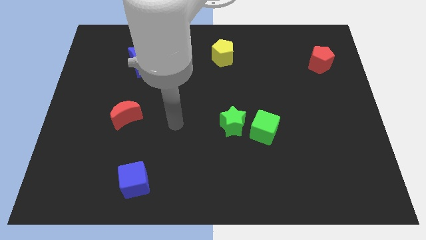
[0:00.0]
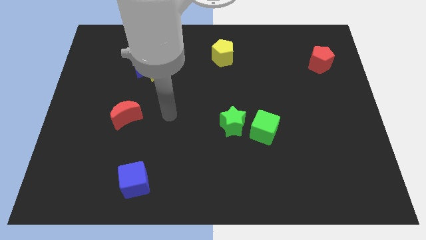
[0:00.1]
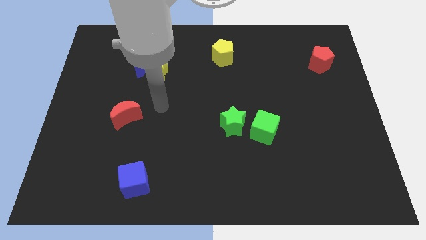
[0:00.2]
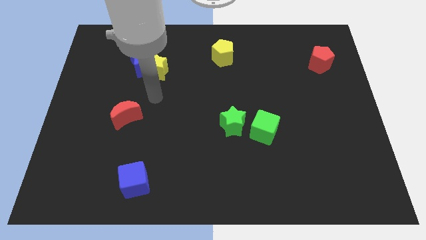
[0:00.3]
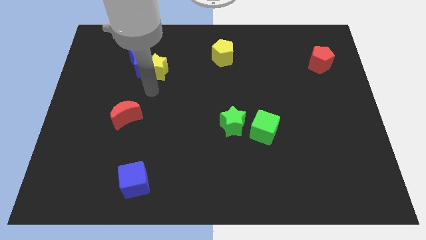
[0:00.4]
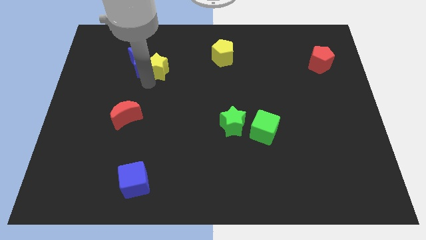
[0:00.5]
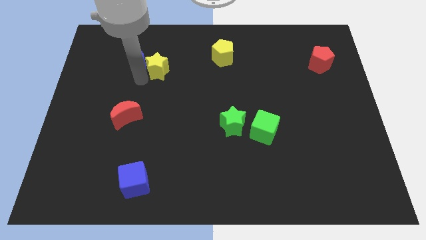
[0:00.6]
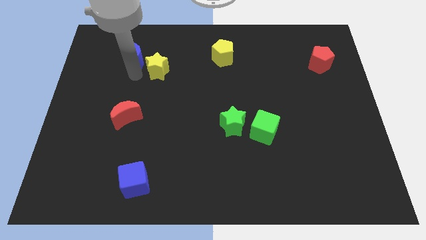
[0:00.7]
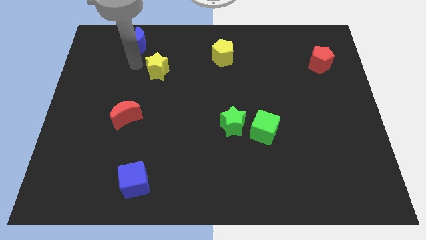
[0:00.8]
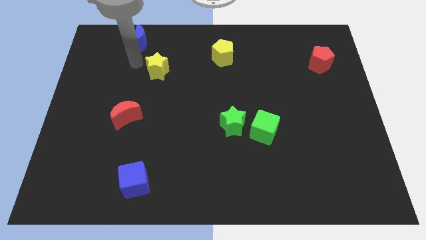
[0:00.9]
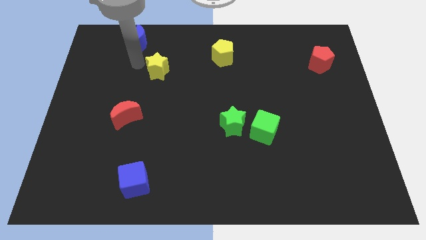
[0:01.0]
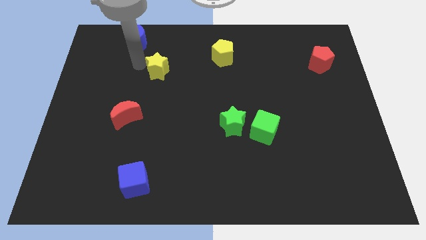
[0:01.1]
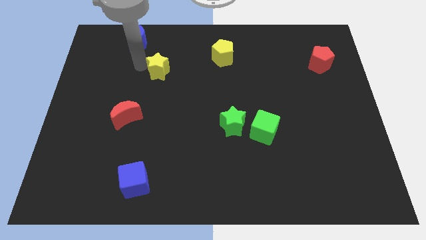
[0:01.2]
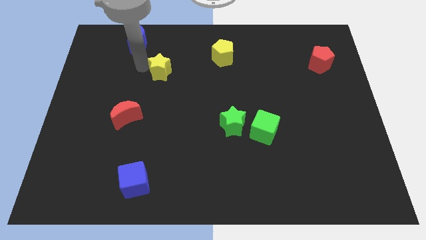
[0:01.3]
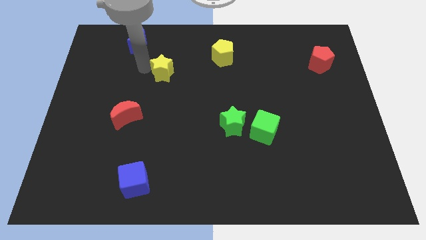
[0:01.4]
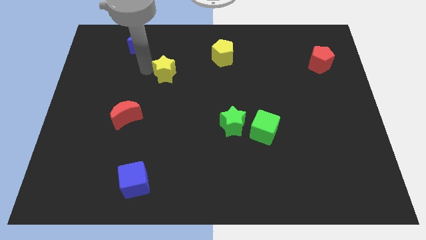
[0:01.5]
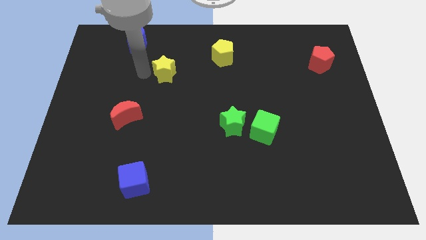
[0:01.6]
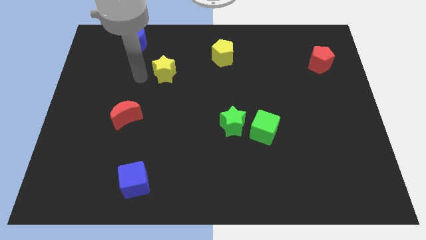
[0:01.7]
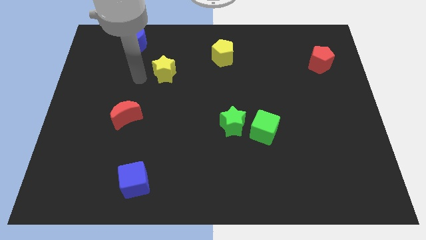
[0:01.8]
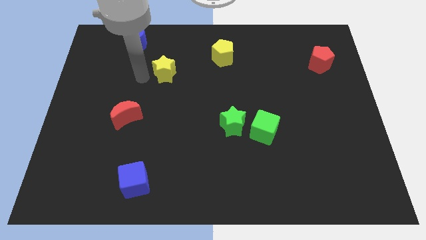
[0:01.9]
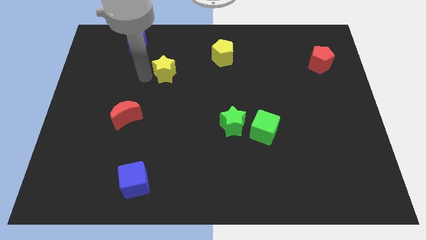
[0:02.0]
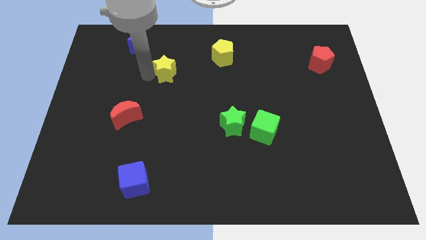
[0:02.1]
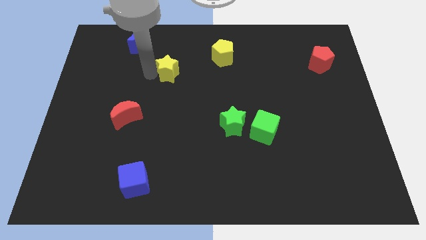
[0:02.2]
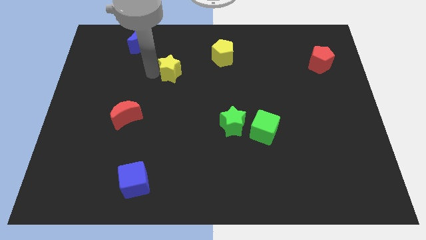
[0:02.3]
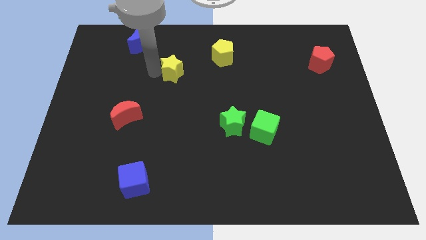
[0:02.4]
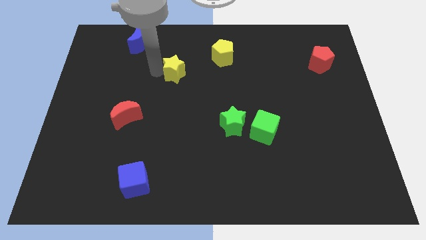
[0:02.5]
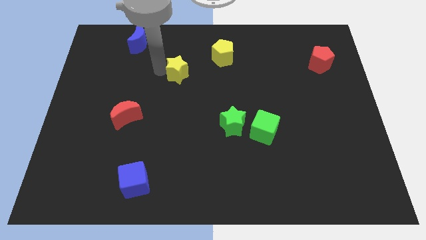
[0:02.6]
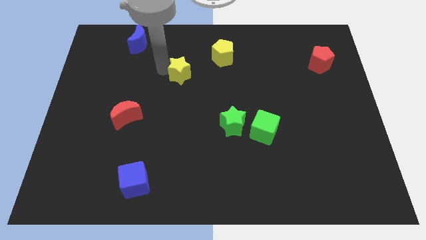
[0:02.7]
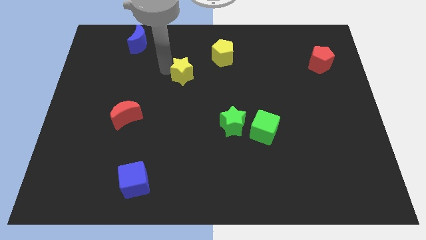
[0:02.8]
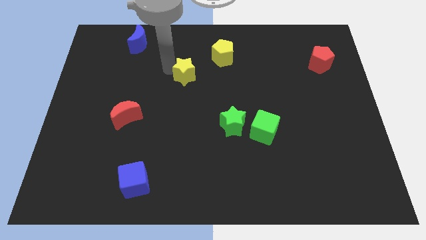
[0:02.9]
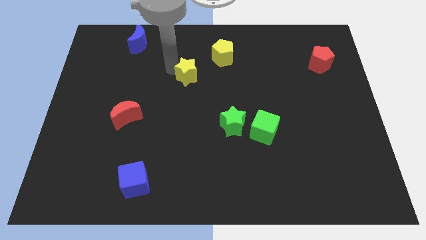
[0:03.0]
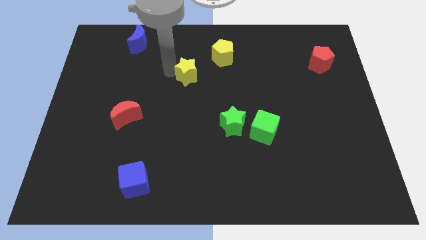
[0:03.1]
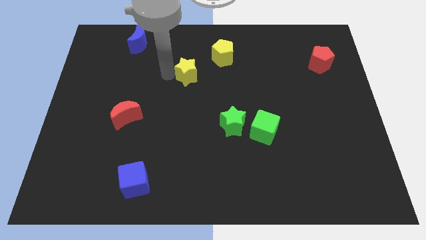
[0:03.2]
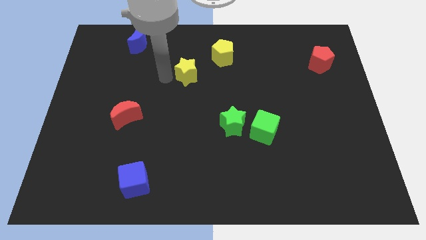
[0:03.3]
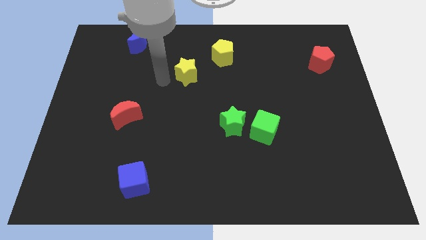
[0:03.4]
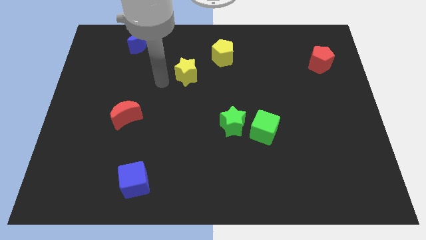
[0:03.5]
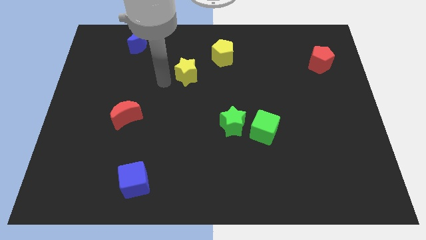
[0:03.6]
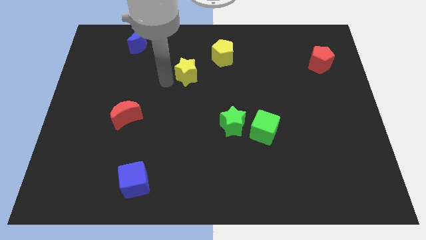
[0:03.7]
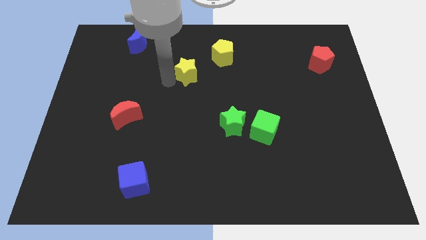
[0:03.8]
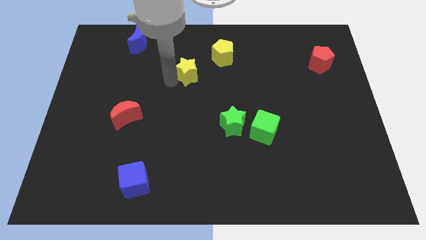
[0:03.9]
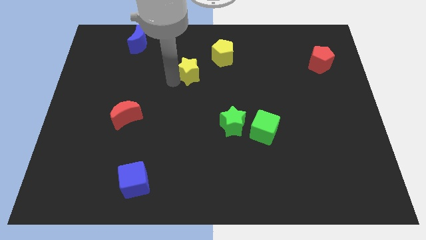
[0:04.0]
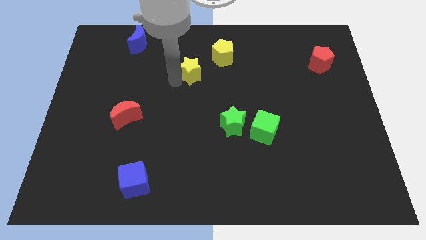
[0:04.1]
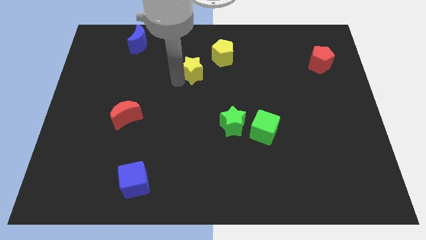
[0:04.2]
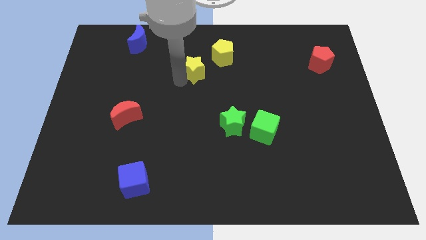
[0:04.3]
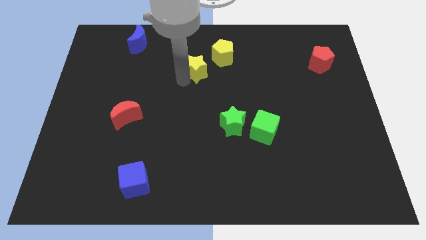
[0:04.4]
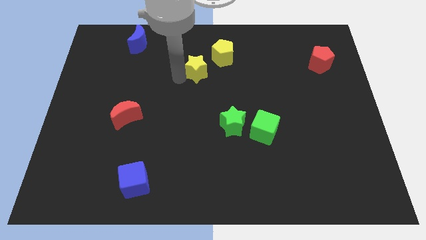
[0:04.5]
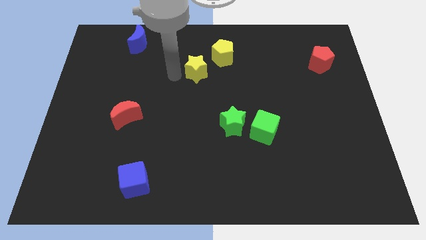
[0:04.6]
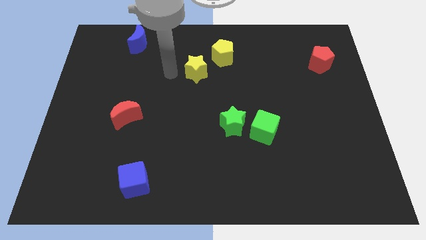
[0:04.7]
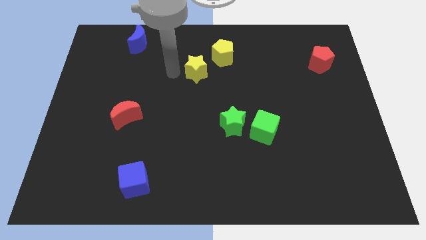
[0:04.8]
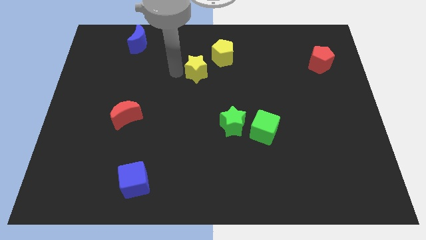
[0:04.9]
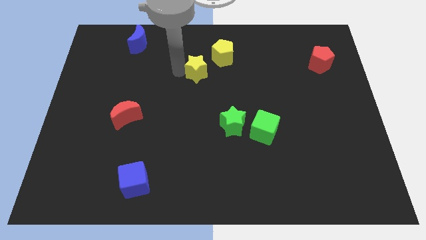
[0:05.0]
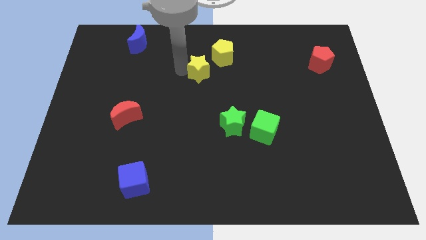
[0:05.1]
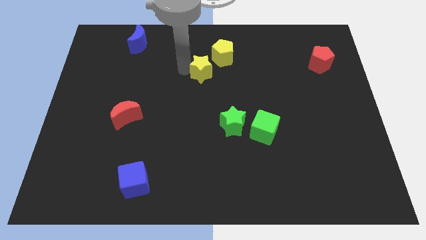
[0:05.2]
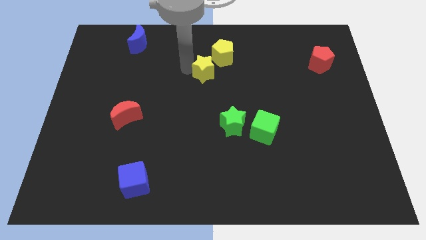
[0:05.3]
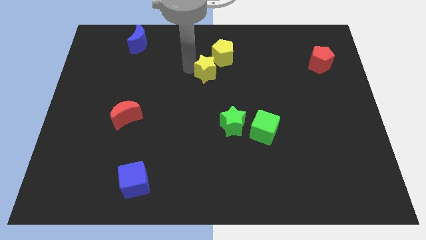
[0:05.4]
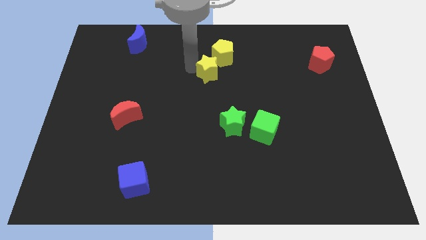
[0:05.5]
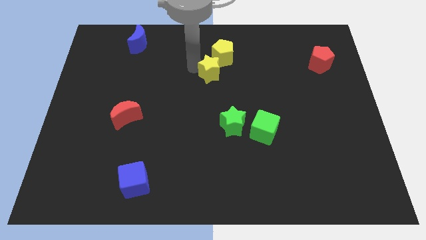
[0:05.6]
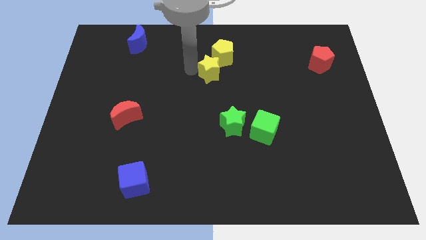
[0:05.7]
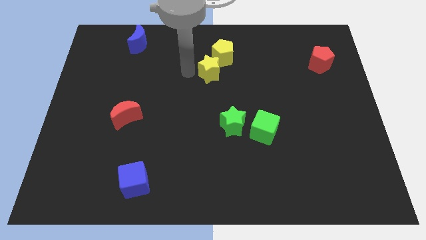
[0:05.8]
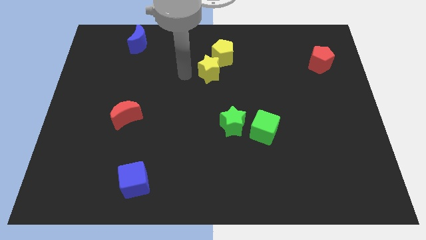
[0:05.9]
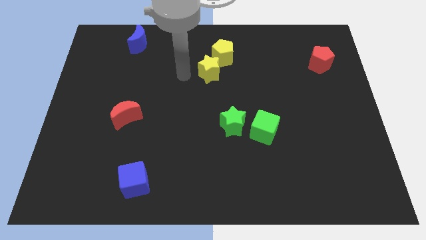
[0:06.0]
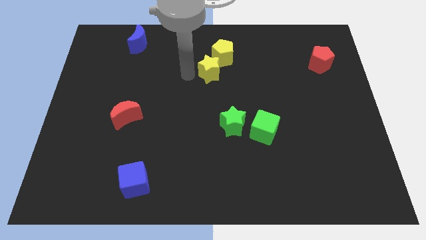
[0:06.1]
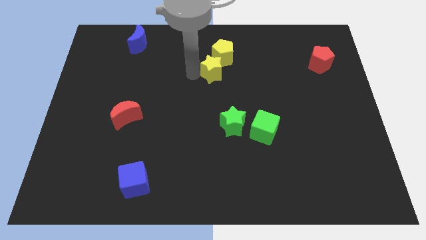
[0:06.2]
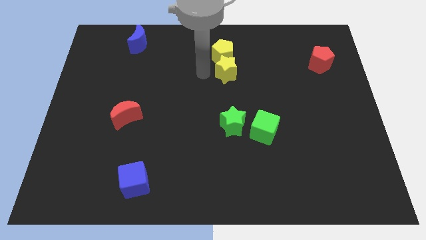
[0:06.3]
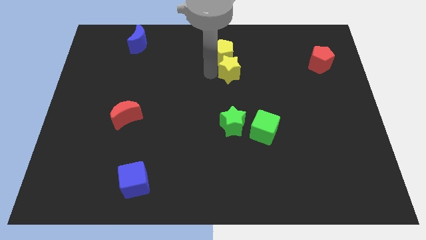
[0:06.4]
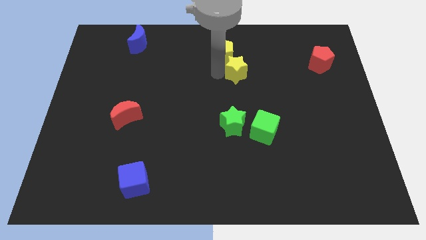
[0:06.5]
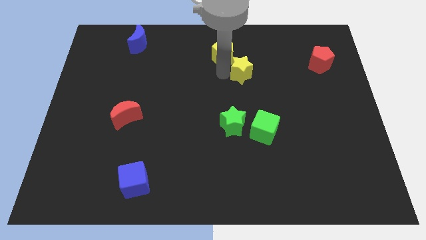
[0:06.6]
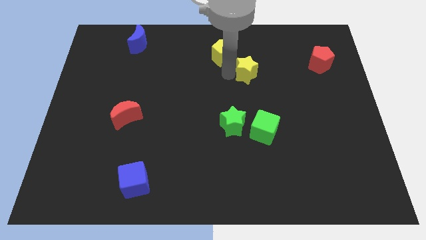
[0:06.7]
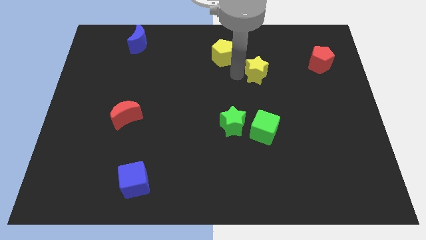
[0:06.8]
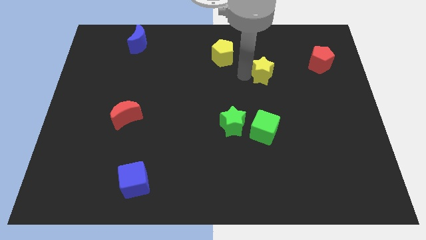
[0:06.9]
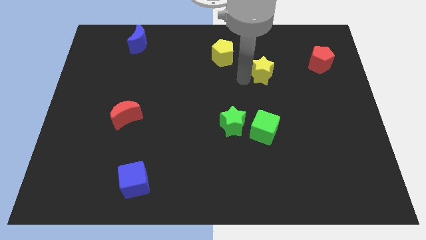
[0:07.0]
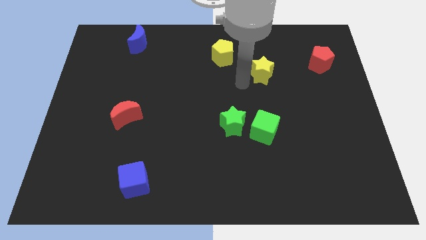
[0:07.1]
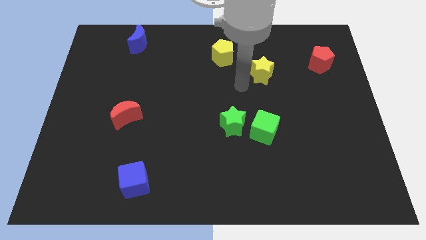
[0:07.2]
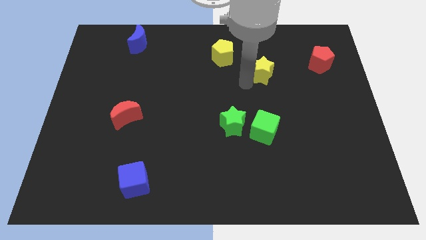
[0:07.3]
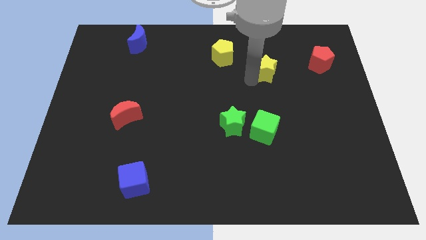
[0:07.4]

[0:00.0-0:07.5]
push the yellow star just left of the red pentagon

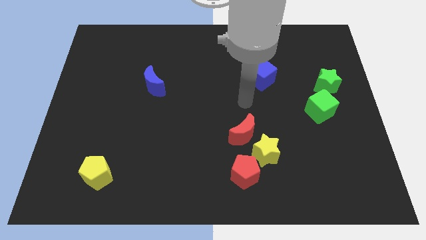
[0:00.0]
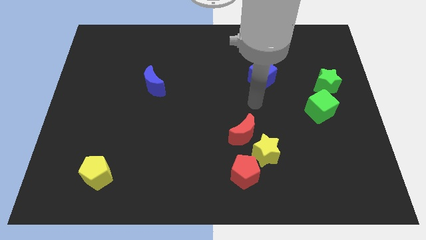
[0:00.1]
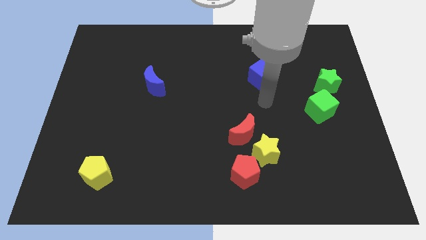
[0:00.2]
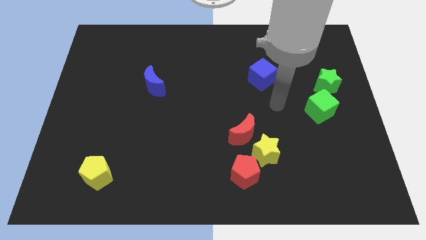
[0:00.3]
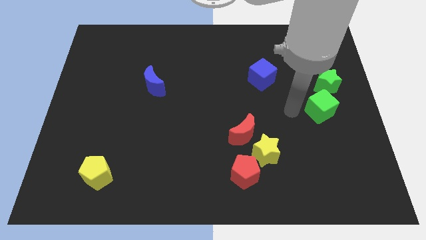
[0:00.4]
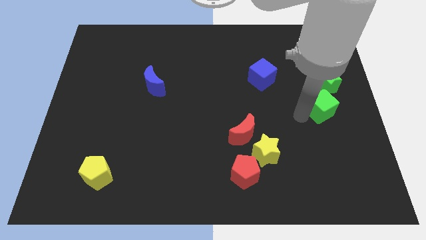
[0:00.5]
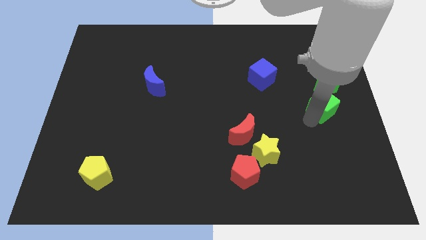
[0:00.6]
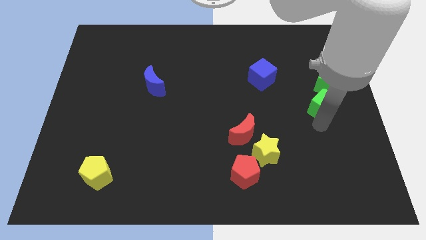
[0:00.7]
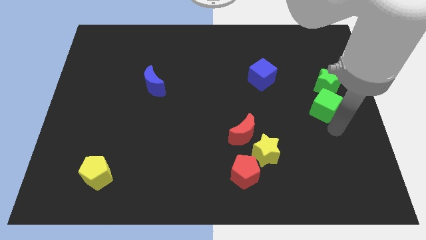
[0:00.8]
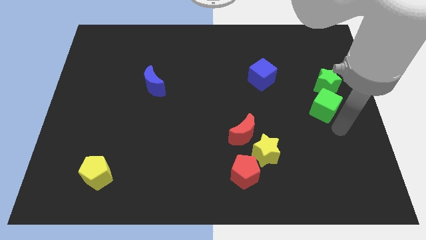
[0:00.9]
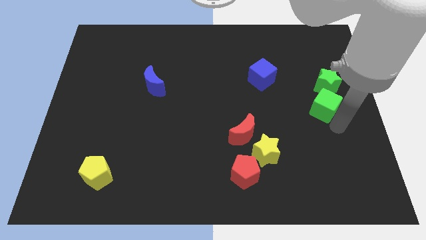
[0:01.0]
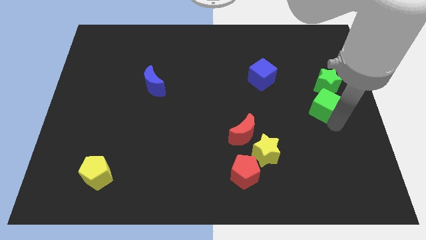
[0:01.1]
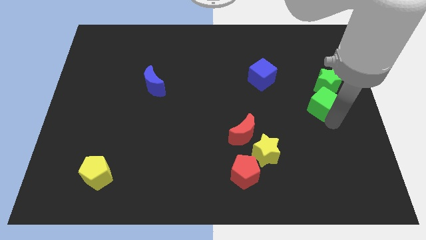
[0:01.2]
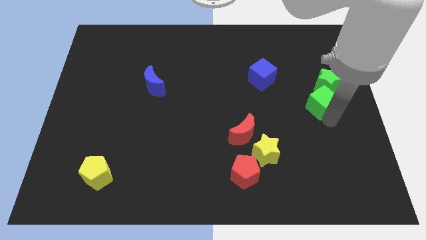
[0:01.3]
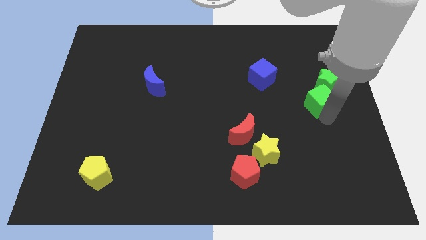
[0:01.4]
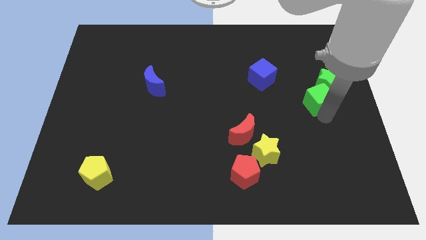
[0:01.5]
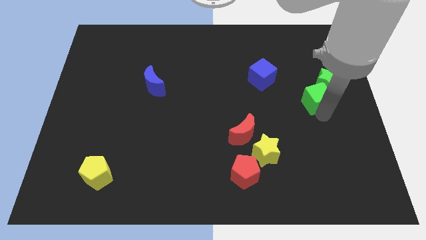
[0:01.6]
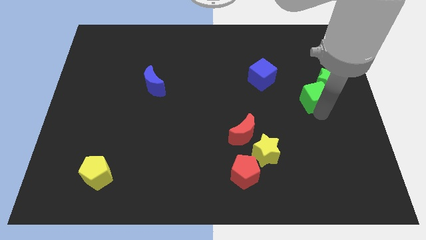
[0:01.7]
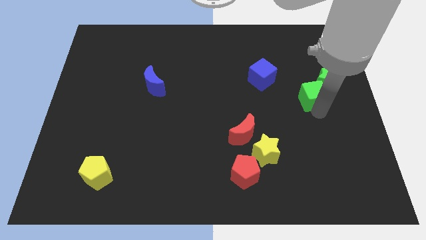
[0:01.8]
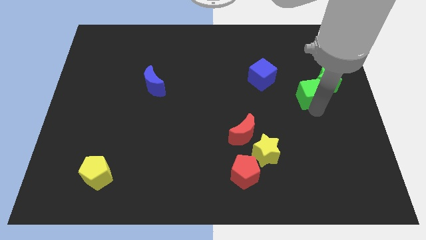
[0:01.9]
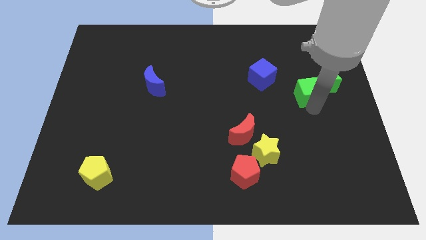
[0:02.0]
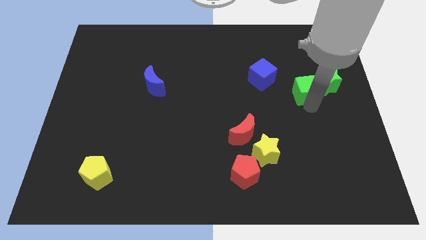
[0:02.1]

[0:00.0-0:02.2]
move the green cube to the right of the blue cube
